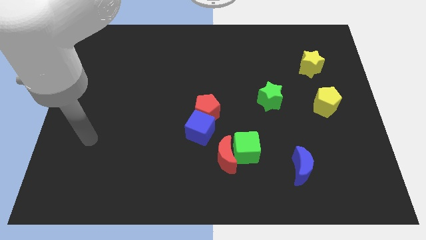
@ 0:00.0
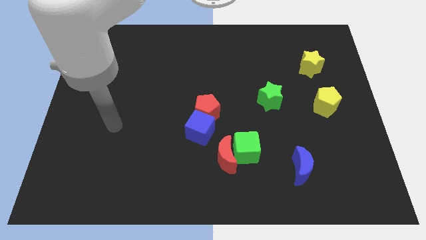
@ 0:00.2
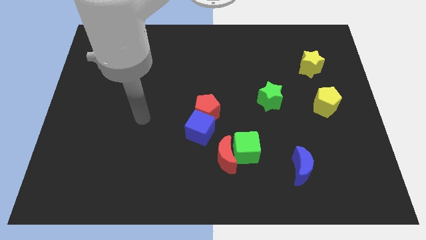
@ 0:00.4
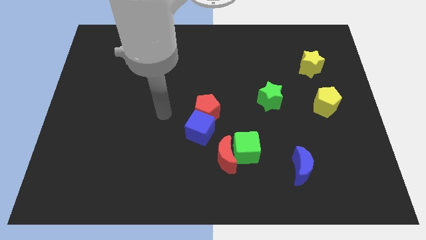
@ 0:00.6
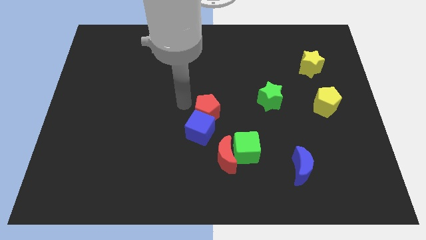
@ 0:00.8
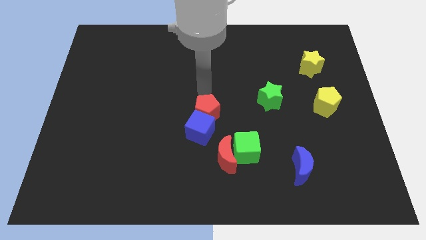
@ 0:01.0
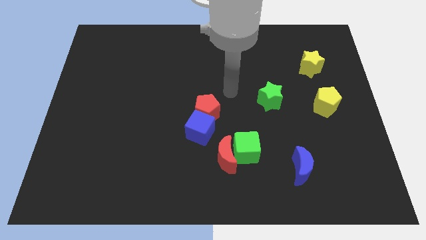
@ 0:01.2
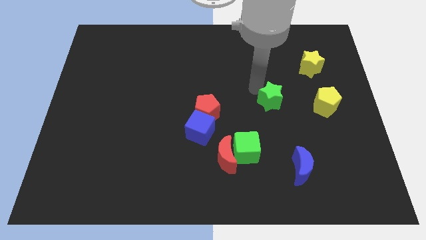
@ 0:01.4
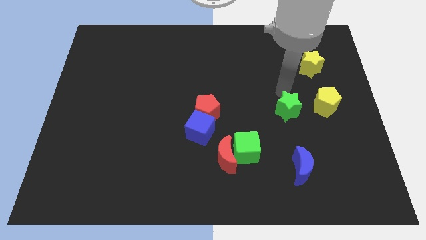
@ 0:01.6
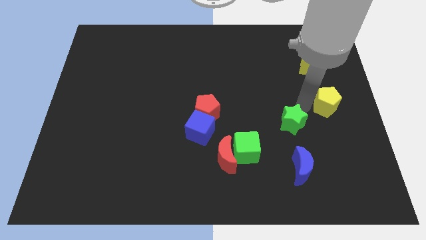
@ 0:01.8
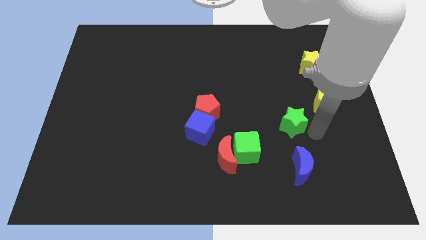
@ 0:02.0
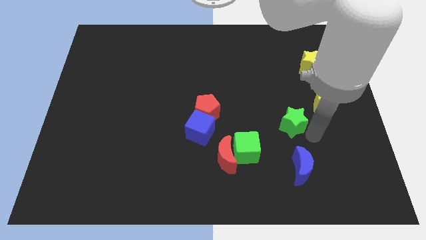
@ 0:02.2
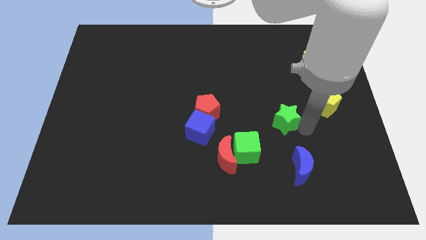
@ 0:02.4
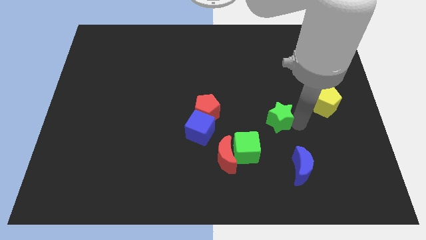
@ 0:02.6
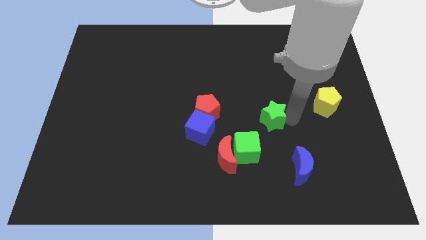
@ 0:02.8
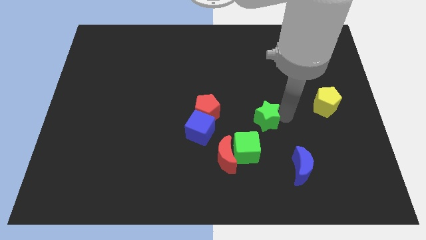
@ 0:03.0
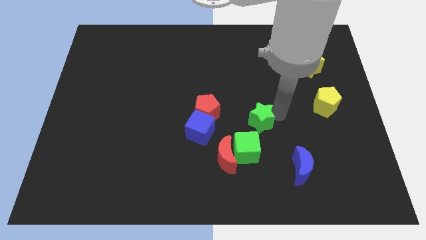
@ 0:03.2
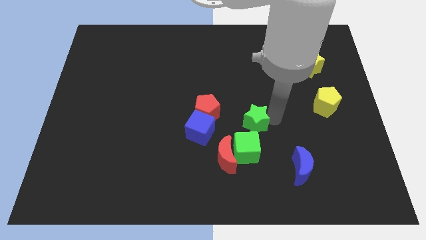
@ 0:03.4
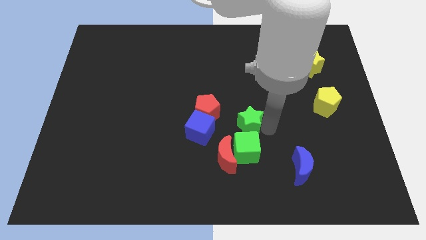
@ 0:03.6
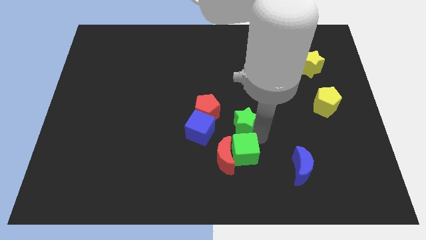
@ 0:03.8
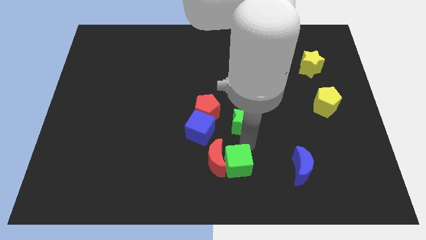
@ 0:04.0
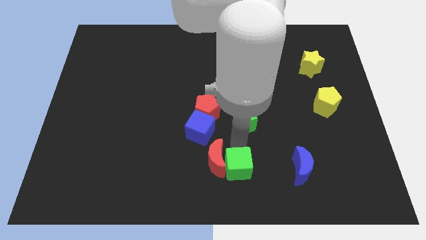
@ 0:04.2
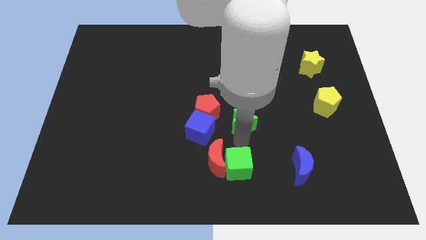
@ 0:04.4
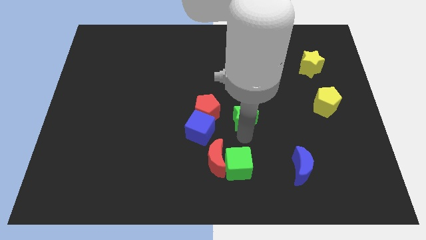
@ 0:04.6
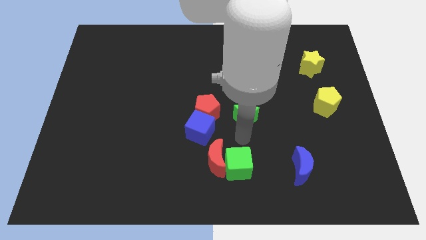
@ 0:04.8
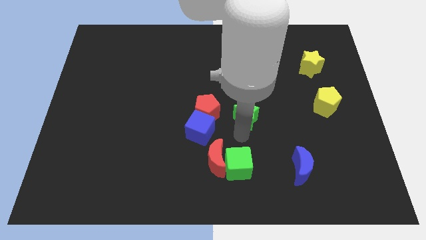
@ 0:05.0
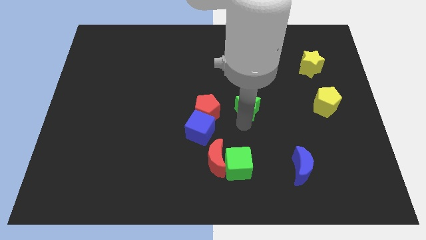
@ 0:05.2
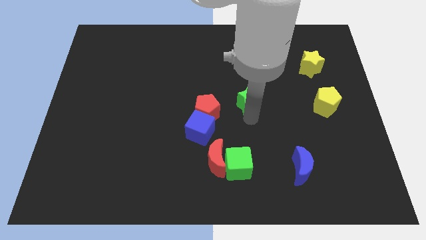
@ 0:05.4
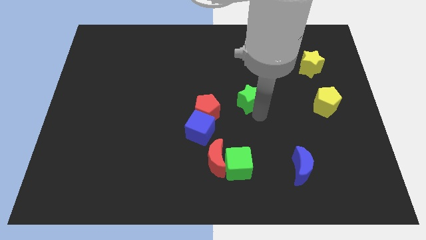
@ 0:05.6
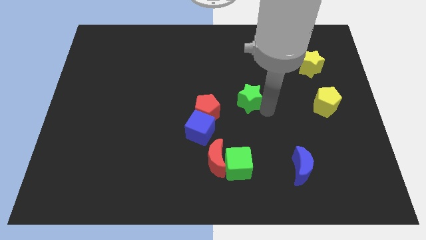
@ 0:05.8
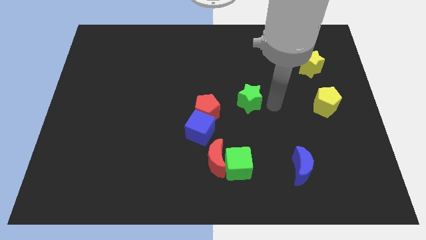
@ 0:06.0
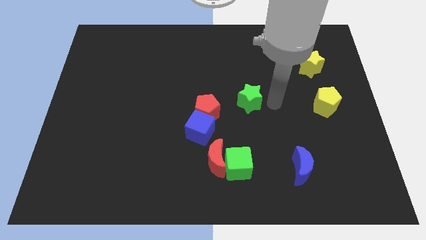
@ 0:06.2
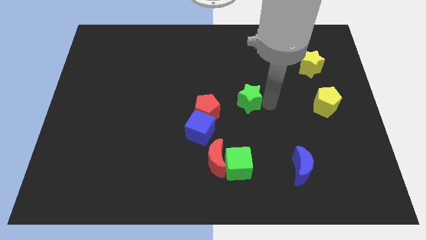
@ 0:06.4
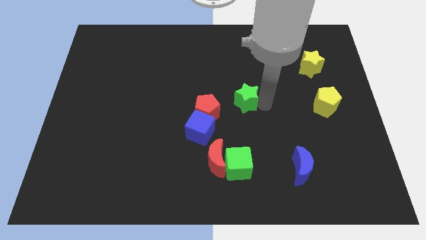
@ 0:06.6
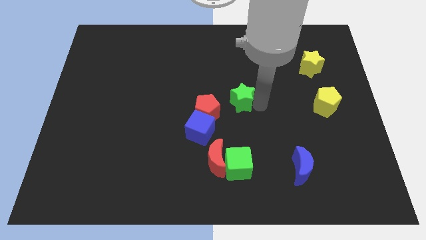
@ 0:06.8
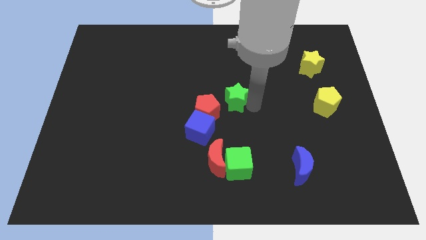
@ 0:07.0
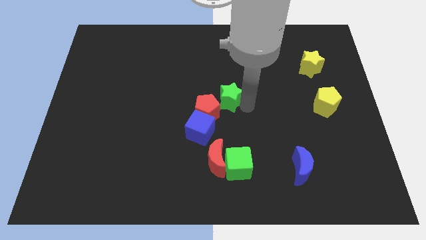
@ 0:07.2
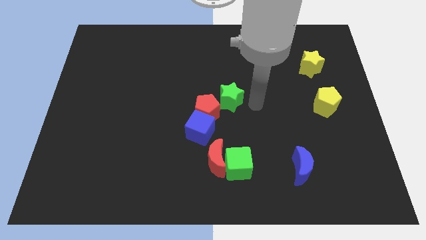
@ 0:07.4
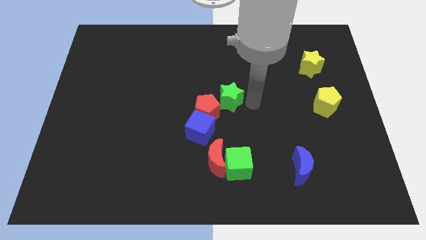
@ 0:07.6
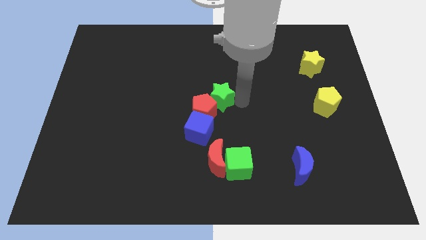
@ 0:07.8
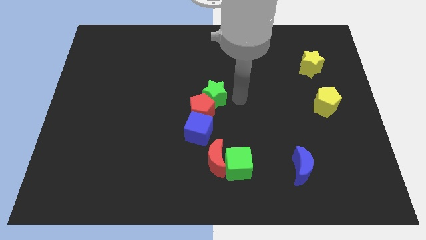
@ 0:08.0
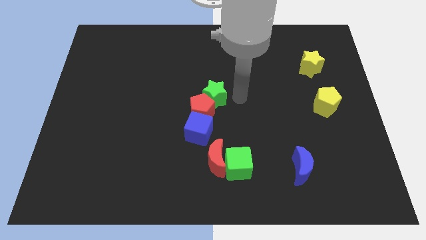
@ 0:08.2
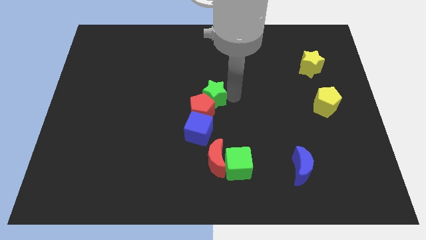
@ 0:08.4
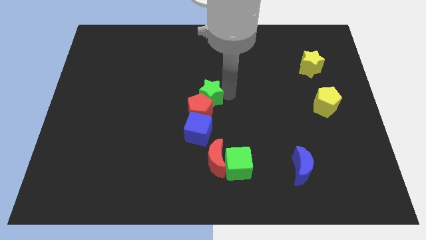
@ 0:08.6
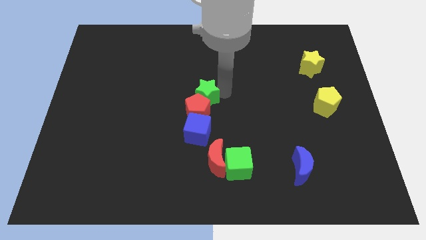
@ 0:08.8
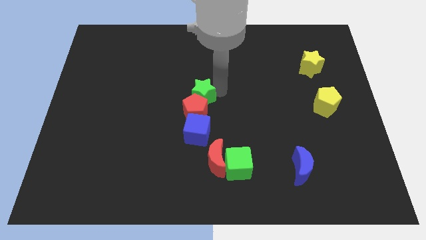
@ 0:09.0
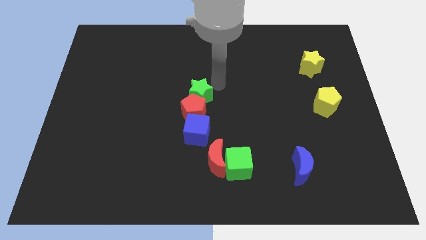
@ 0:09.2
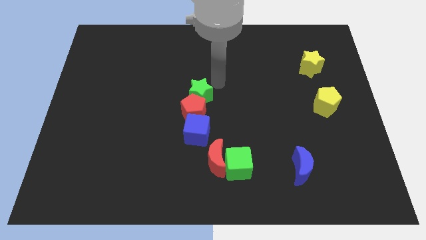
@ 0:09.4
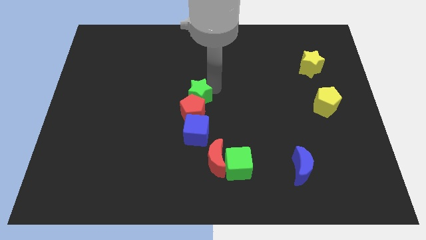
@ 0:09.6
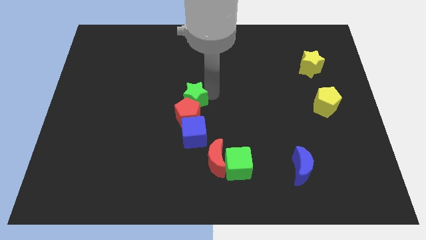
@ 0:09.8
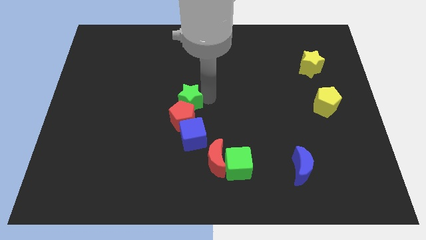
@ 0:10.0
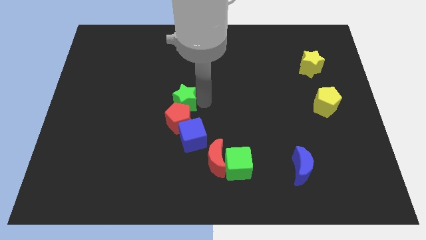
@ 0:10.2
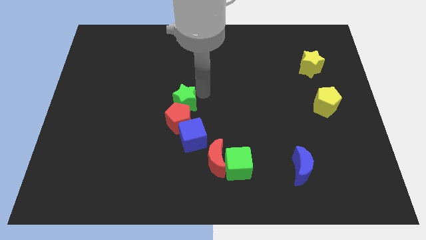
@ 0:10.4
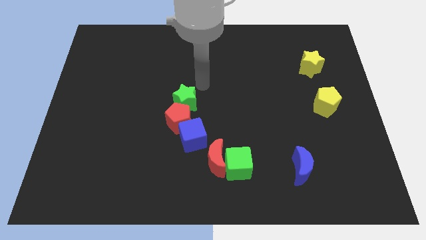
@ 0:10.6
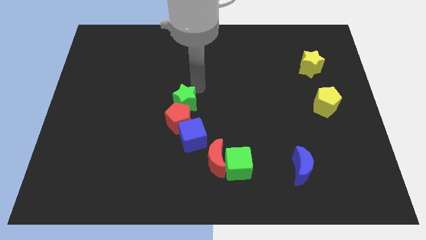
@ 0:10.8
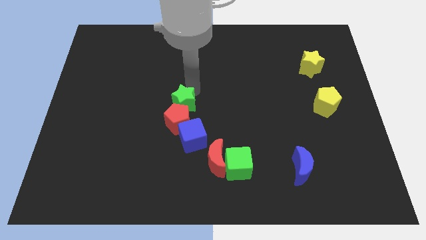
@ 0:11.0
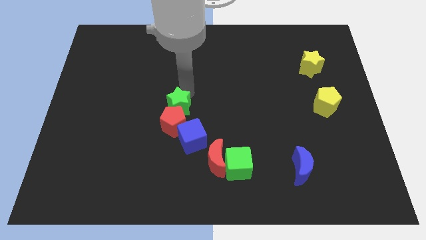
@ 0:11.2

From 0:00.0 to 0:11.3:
put the green star to the top left side of the blue cube

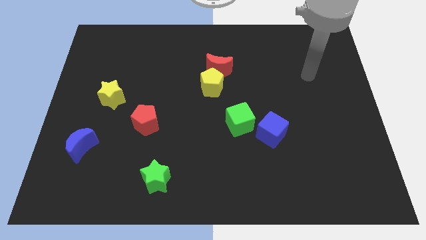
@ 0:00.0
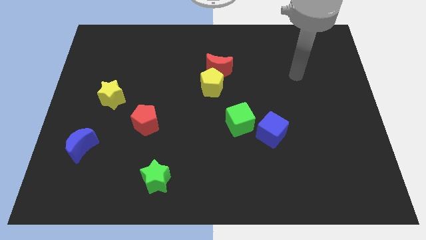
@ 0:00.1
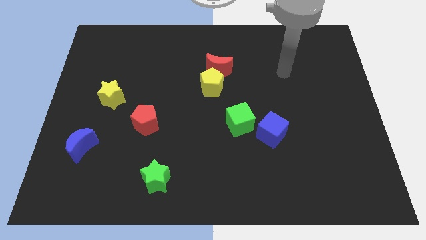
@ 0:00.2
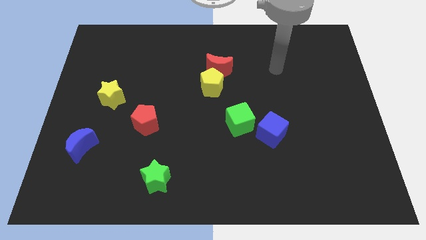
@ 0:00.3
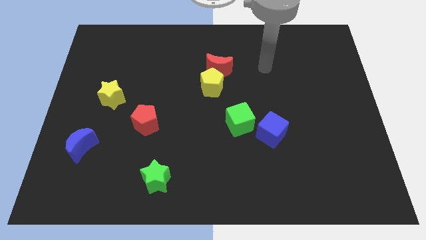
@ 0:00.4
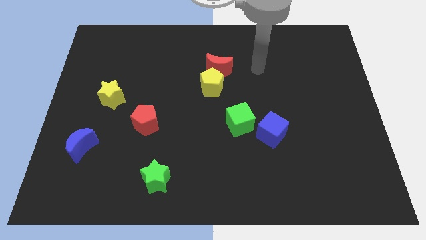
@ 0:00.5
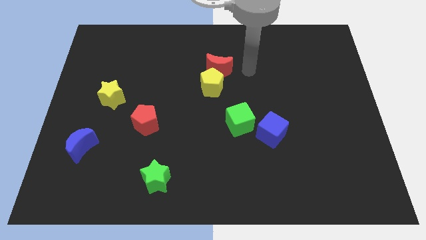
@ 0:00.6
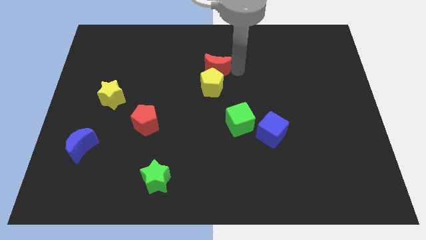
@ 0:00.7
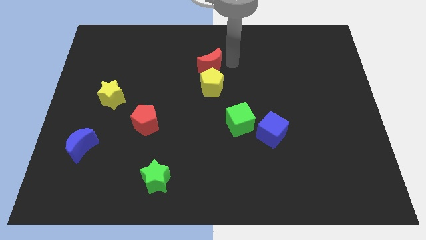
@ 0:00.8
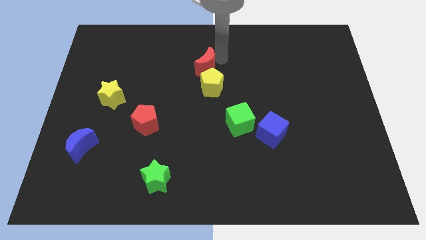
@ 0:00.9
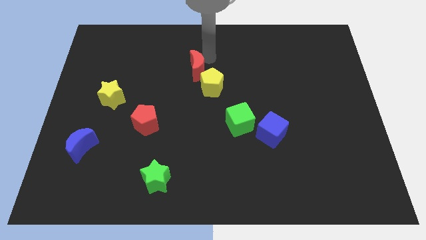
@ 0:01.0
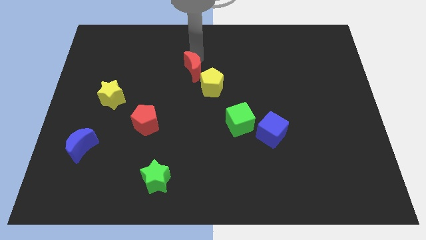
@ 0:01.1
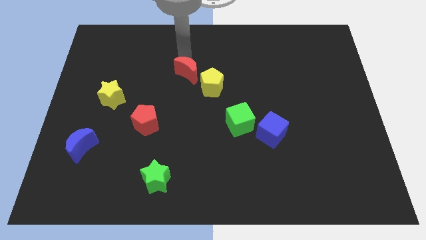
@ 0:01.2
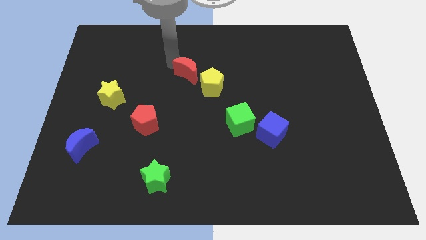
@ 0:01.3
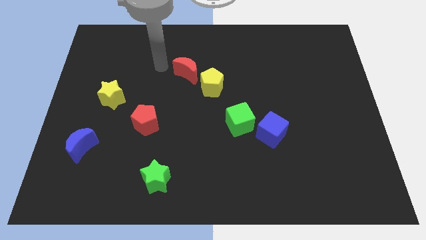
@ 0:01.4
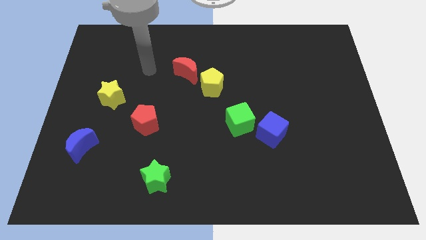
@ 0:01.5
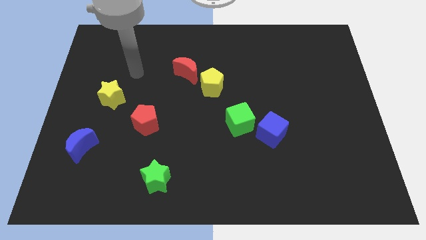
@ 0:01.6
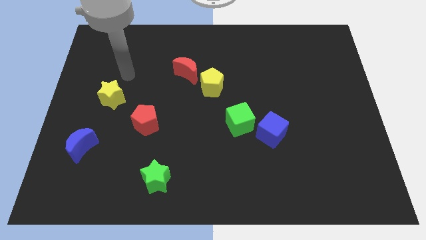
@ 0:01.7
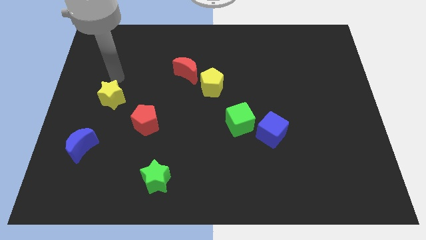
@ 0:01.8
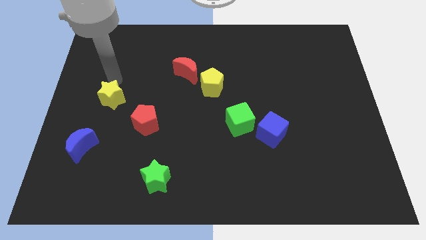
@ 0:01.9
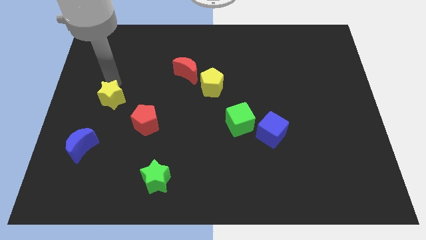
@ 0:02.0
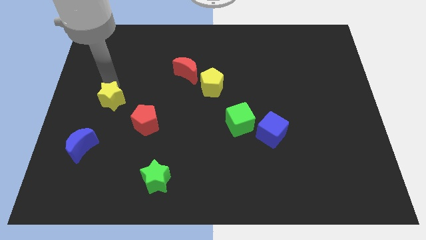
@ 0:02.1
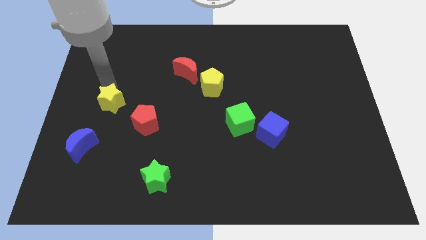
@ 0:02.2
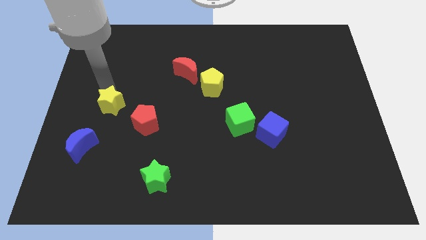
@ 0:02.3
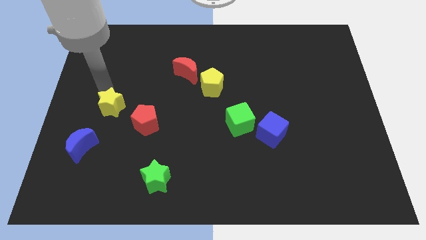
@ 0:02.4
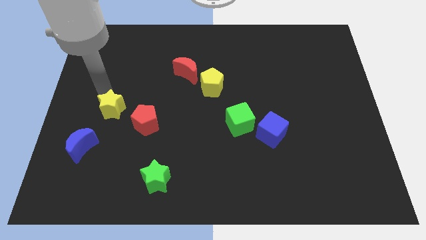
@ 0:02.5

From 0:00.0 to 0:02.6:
push the yellow star to the top right side of the blue moon
